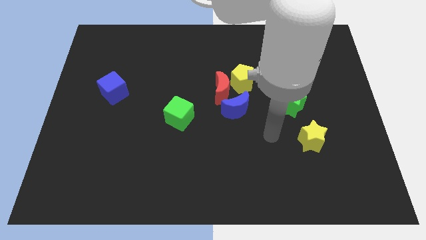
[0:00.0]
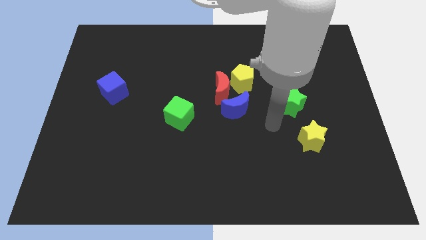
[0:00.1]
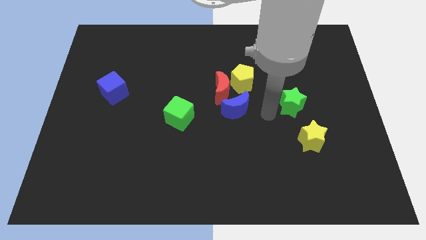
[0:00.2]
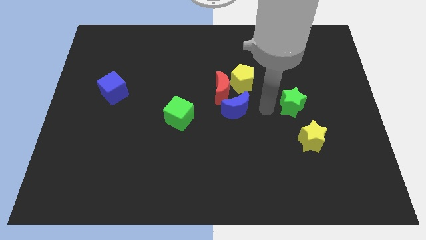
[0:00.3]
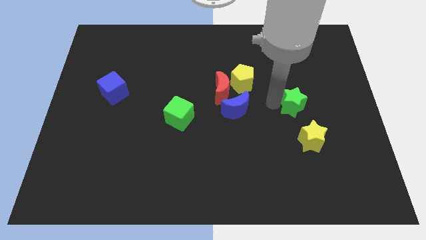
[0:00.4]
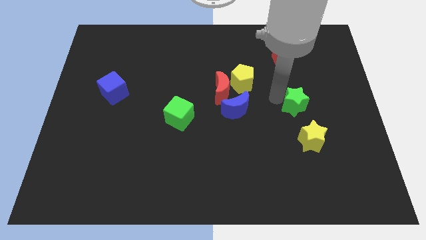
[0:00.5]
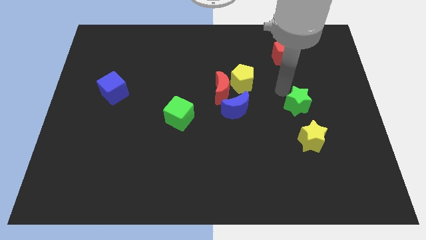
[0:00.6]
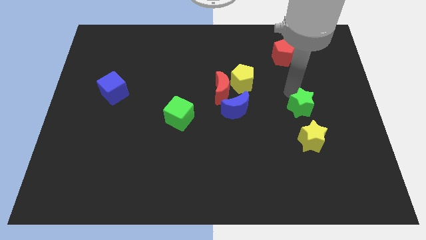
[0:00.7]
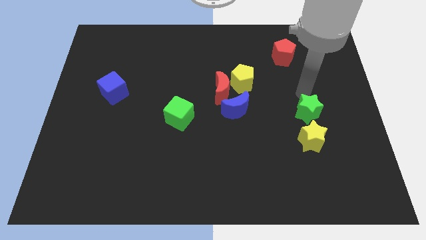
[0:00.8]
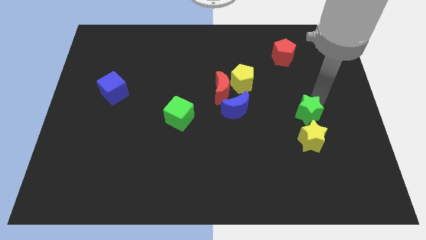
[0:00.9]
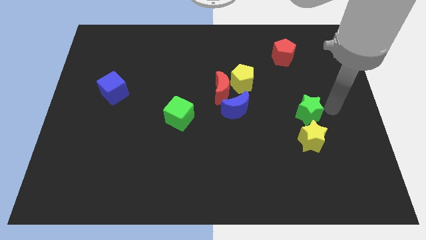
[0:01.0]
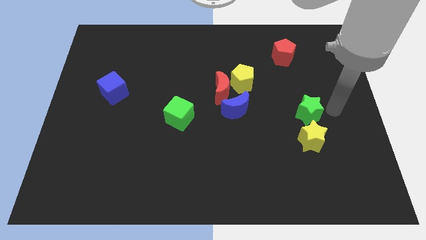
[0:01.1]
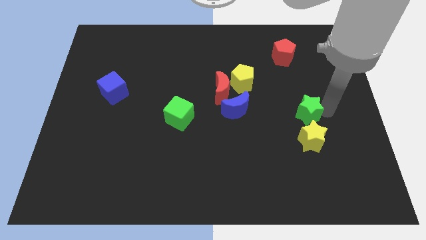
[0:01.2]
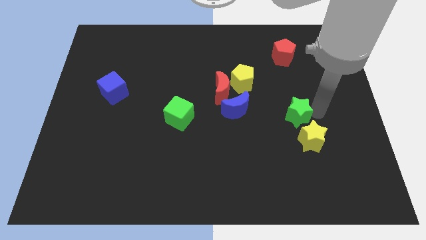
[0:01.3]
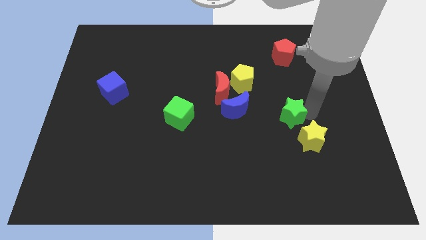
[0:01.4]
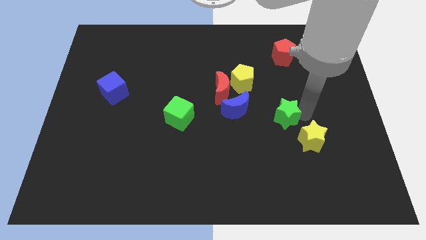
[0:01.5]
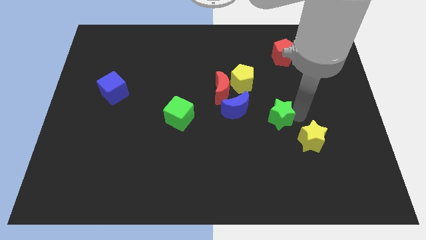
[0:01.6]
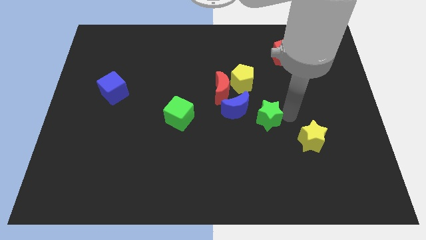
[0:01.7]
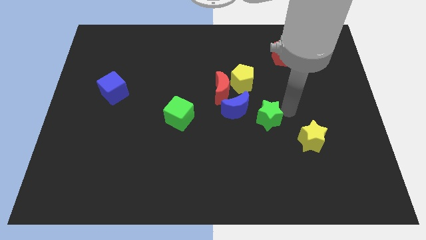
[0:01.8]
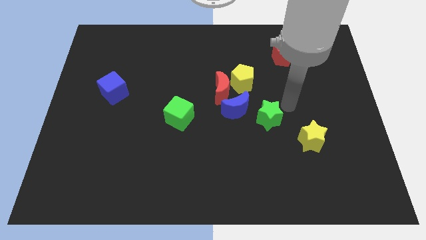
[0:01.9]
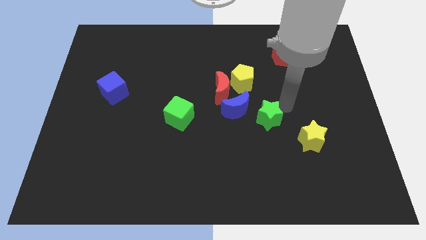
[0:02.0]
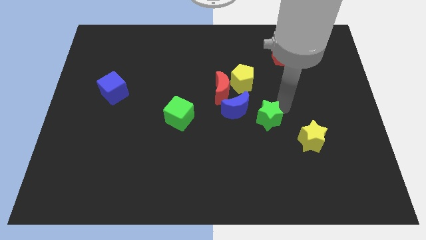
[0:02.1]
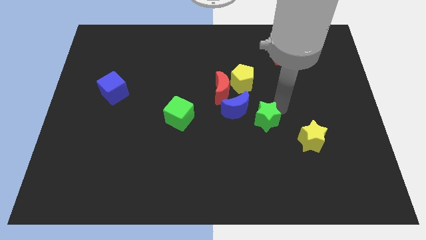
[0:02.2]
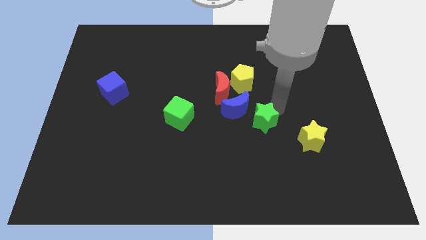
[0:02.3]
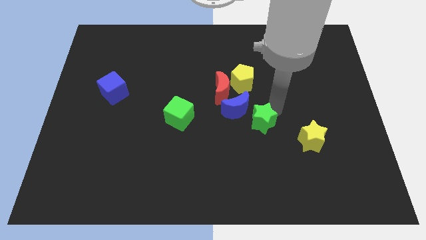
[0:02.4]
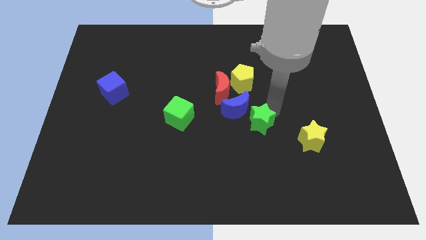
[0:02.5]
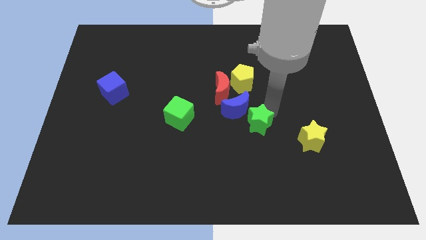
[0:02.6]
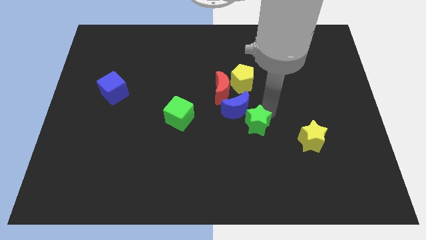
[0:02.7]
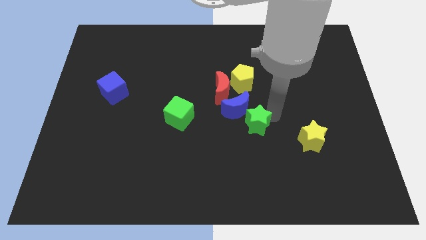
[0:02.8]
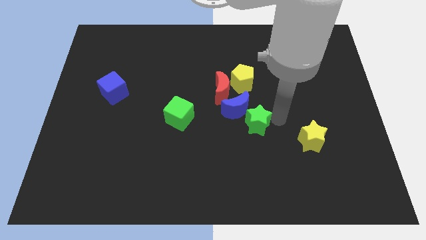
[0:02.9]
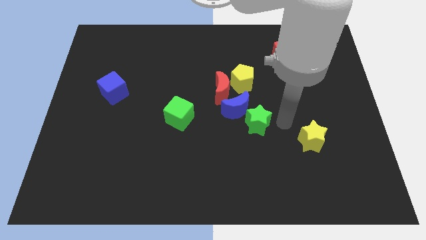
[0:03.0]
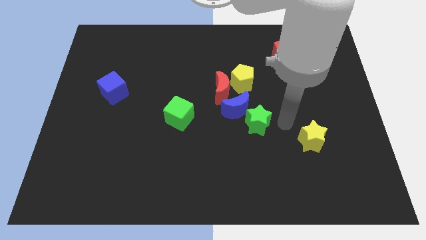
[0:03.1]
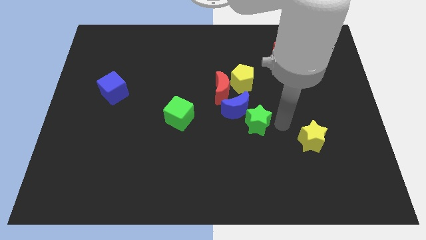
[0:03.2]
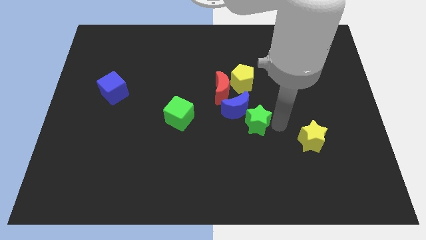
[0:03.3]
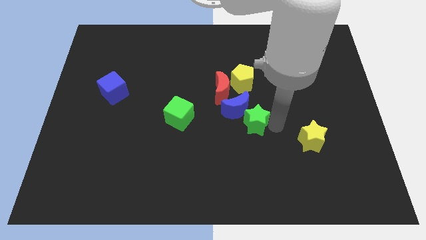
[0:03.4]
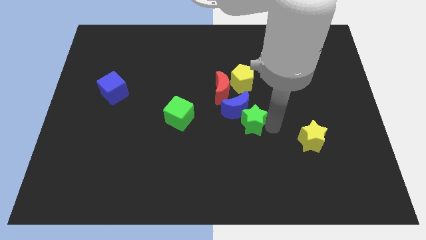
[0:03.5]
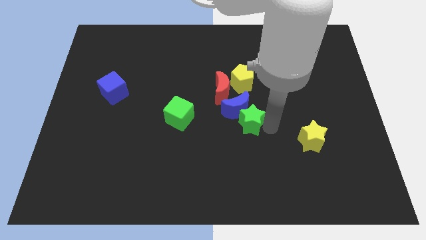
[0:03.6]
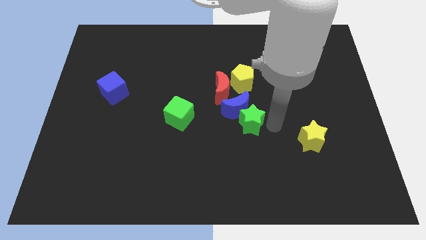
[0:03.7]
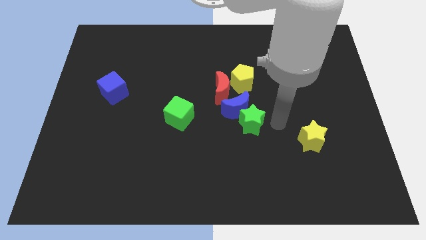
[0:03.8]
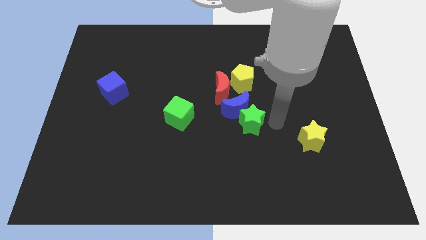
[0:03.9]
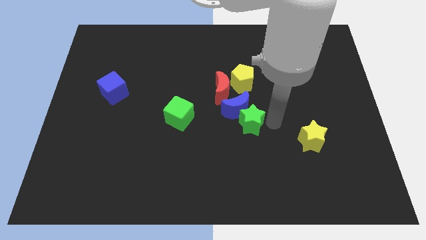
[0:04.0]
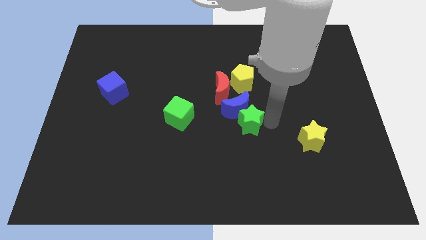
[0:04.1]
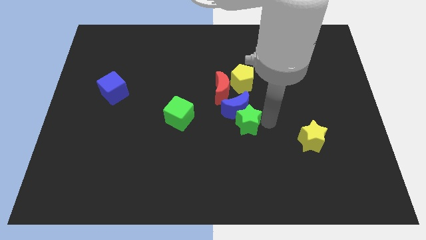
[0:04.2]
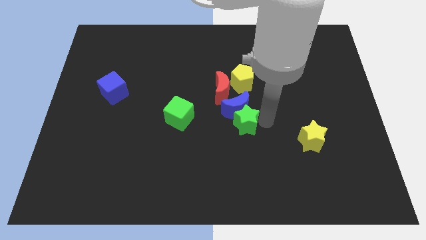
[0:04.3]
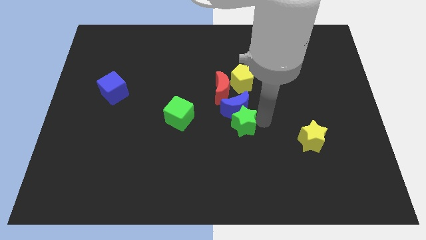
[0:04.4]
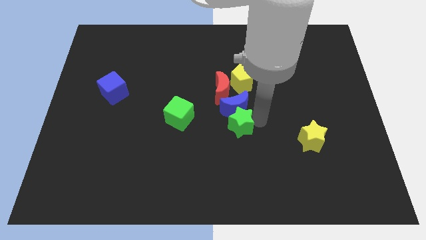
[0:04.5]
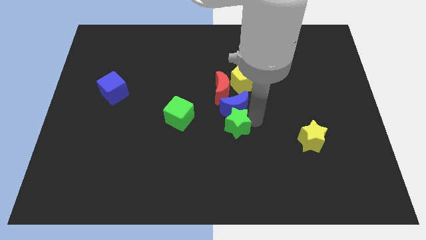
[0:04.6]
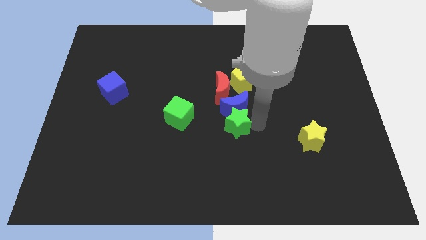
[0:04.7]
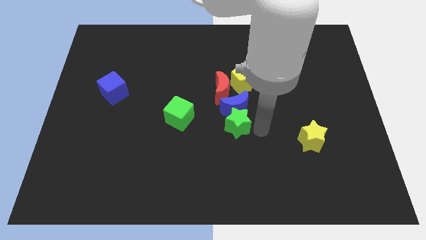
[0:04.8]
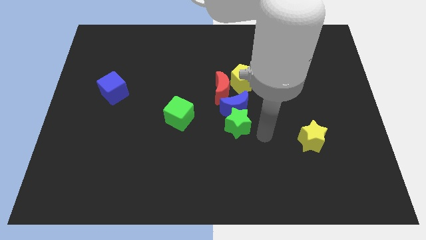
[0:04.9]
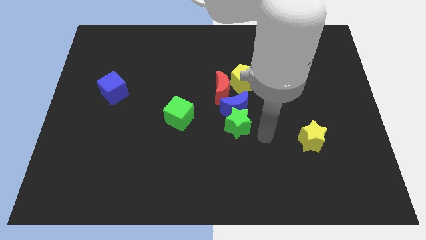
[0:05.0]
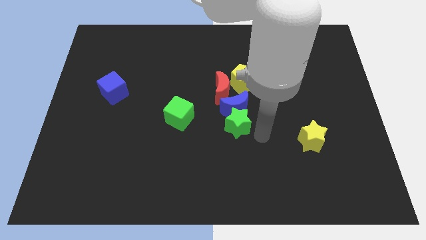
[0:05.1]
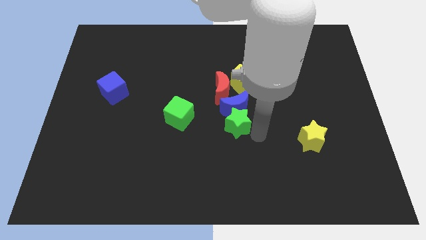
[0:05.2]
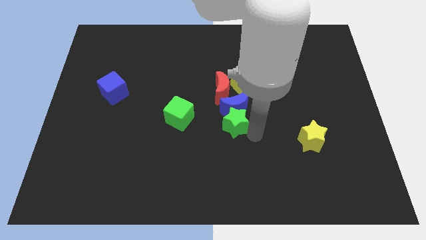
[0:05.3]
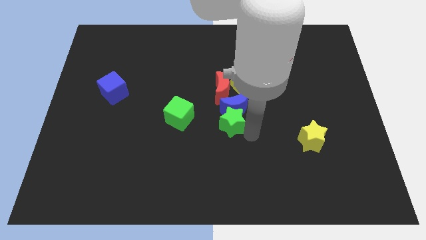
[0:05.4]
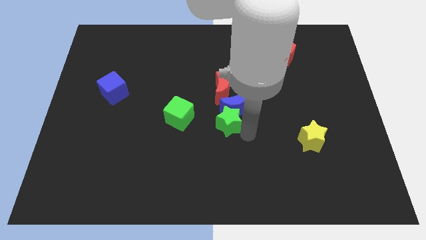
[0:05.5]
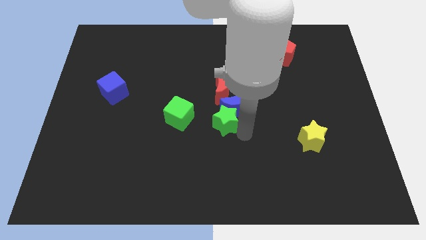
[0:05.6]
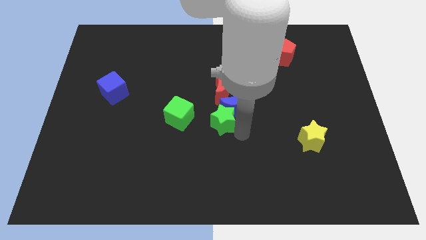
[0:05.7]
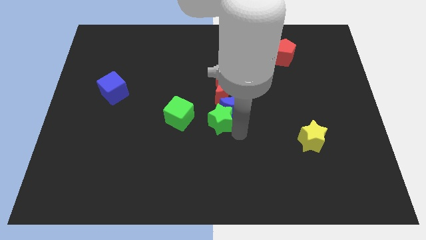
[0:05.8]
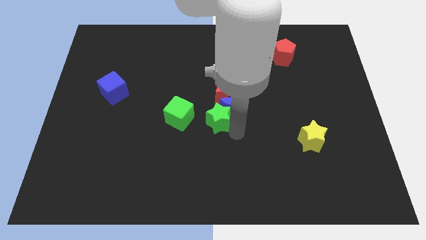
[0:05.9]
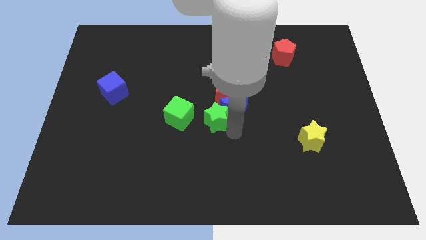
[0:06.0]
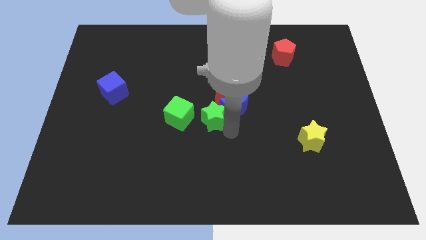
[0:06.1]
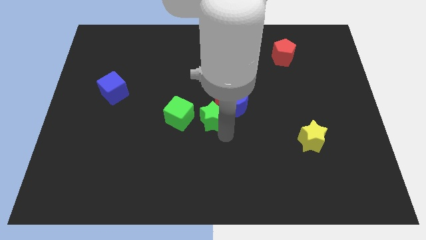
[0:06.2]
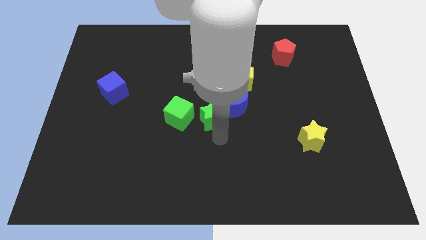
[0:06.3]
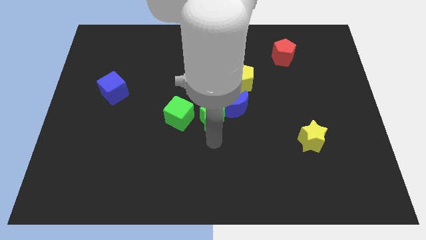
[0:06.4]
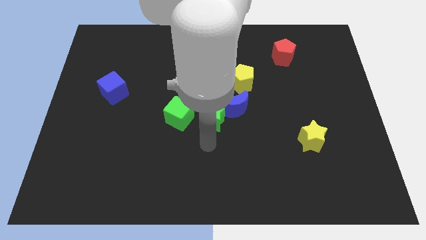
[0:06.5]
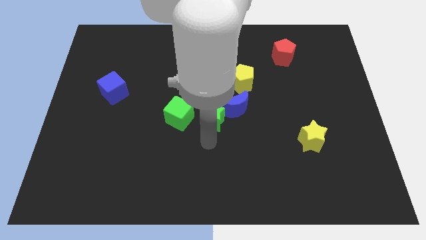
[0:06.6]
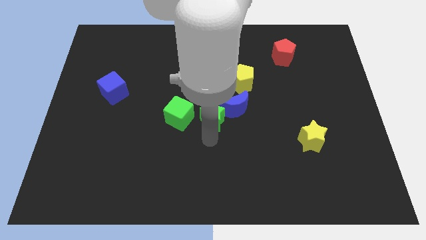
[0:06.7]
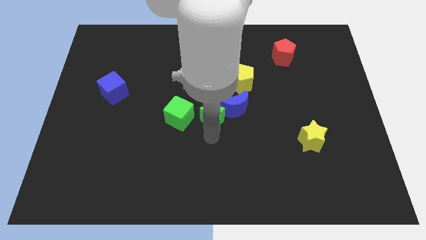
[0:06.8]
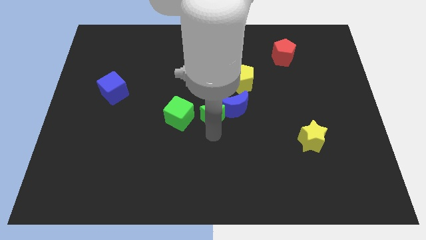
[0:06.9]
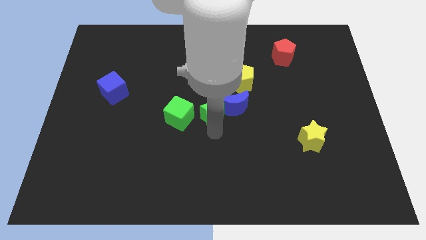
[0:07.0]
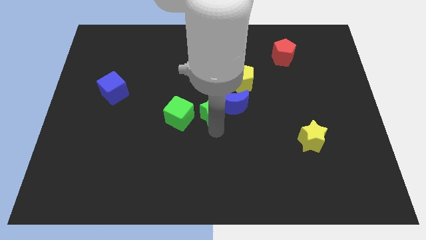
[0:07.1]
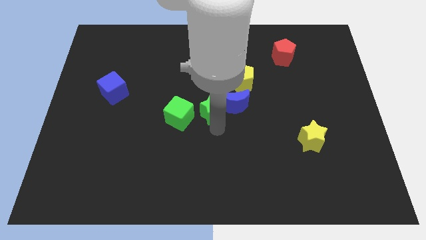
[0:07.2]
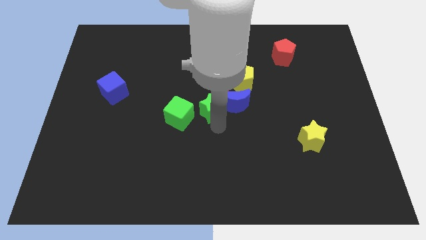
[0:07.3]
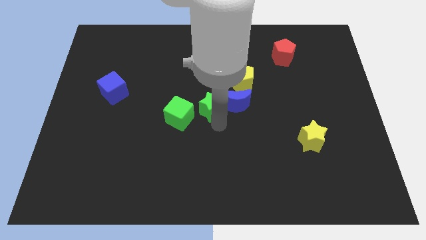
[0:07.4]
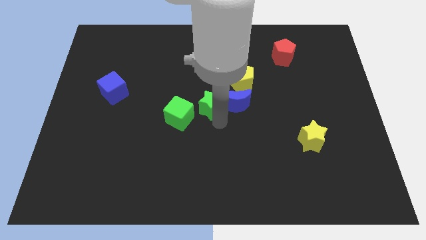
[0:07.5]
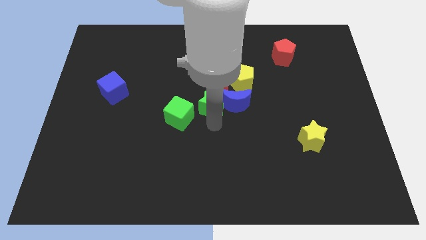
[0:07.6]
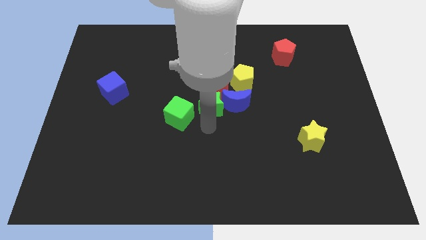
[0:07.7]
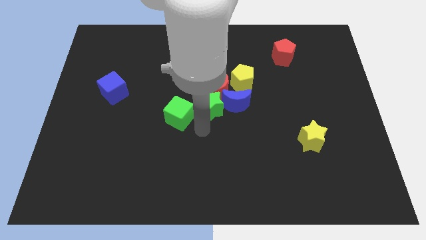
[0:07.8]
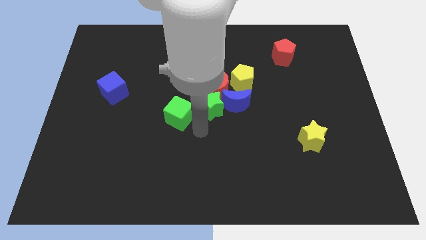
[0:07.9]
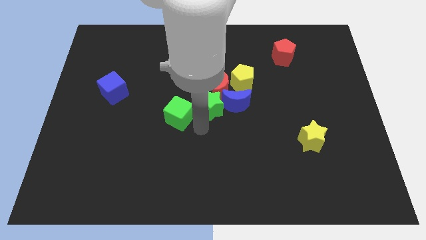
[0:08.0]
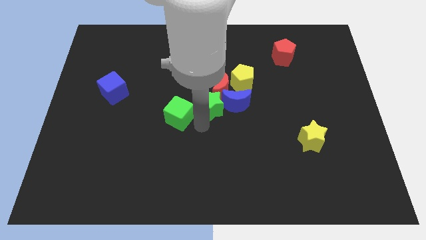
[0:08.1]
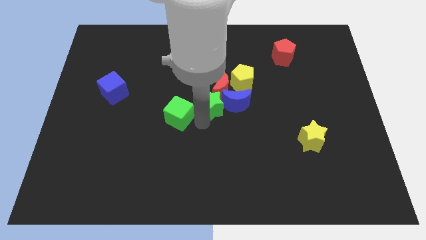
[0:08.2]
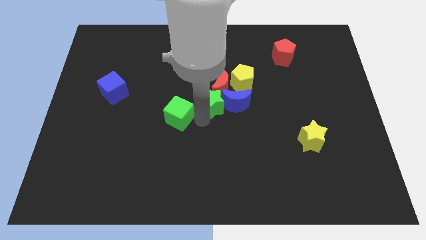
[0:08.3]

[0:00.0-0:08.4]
put the green star close to the red moon
